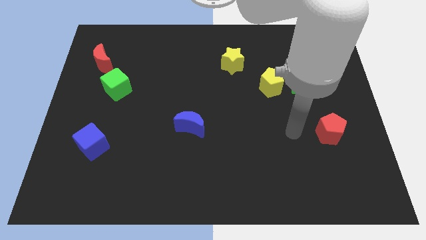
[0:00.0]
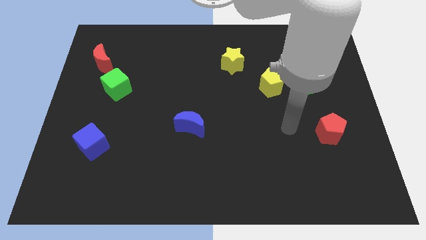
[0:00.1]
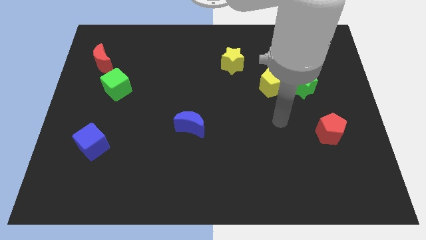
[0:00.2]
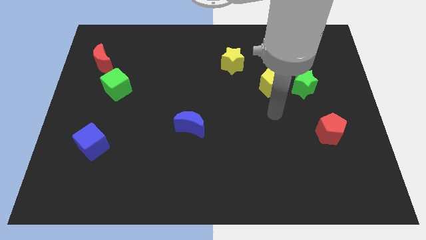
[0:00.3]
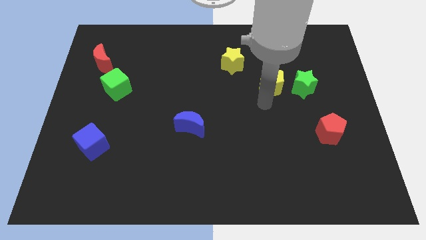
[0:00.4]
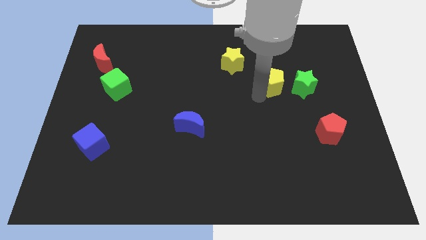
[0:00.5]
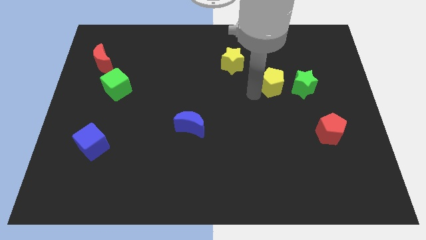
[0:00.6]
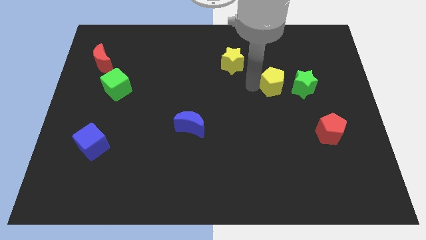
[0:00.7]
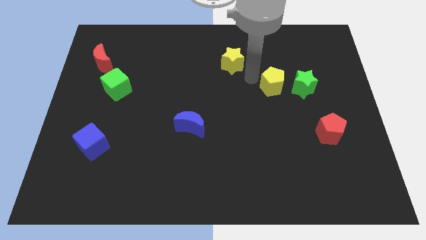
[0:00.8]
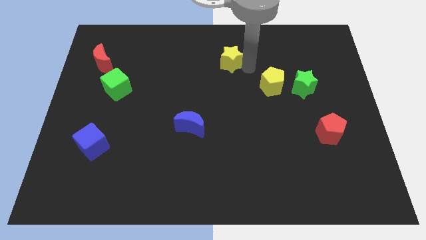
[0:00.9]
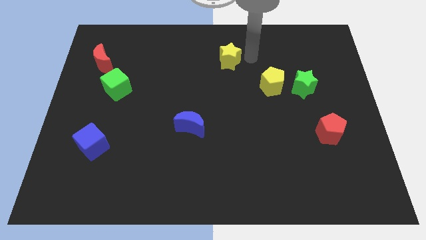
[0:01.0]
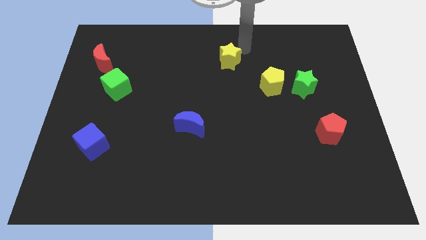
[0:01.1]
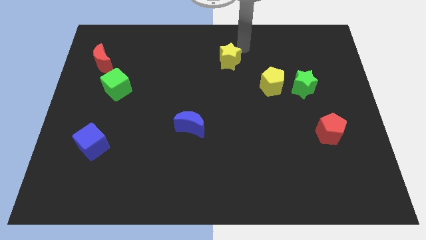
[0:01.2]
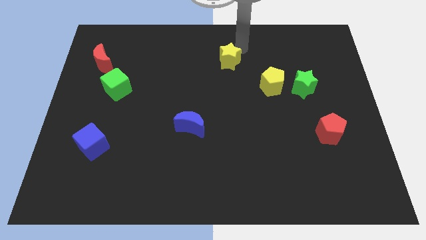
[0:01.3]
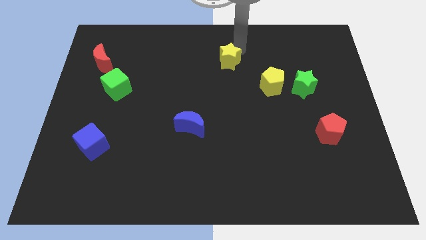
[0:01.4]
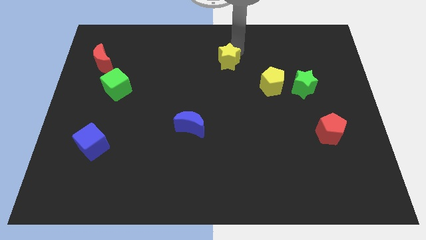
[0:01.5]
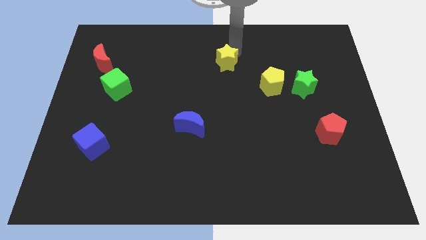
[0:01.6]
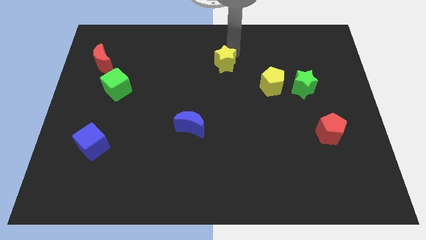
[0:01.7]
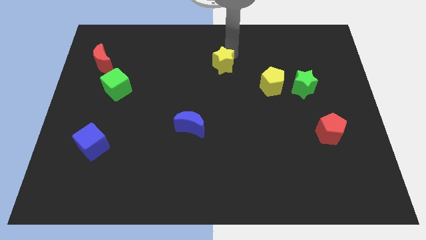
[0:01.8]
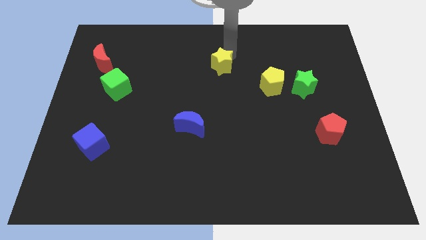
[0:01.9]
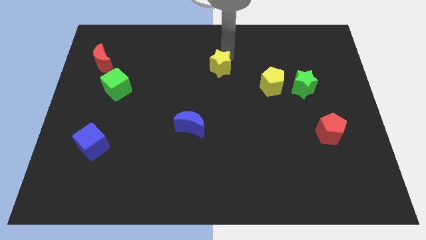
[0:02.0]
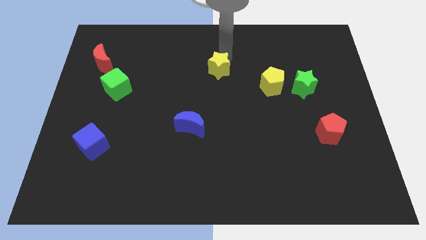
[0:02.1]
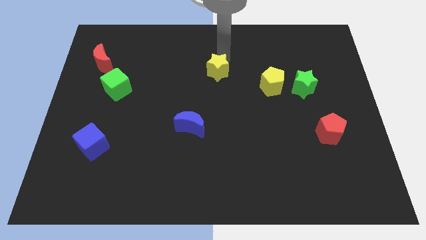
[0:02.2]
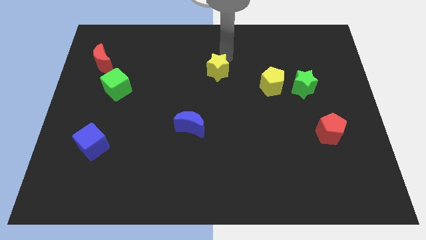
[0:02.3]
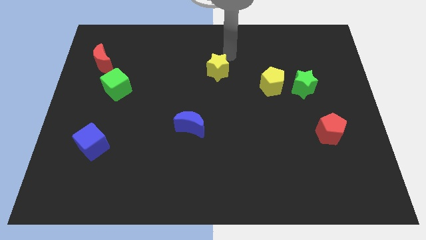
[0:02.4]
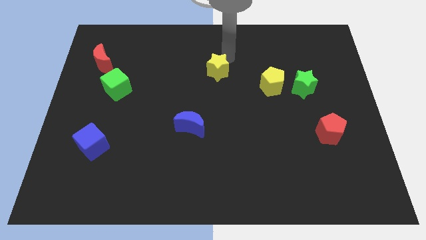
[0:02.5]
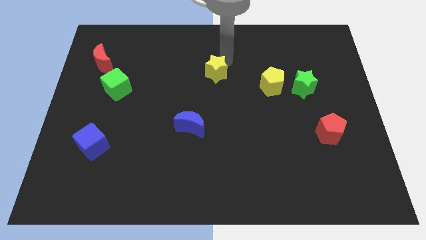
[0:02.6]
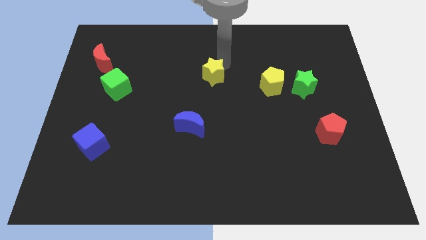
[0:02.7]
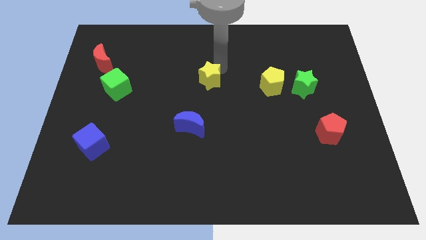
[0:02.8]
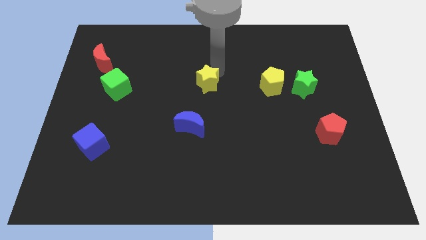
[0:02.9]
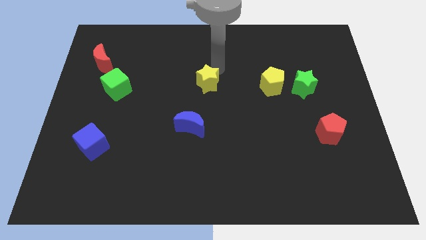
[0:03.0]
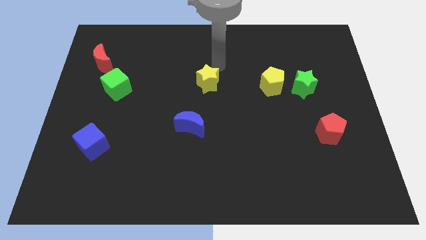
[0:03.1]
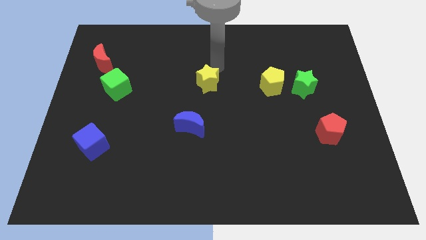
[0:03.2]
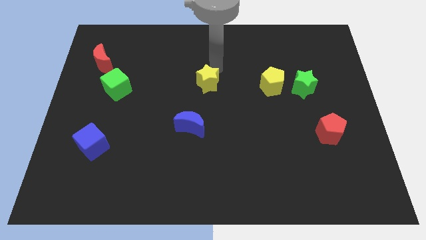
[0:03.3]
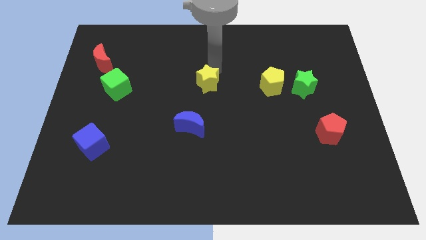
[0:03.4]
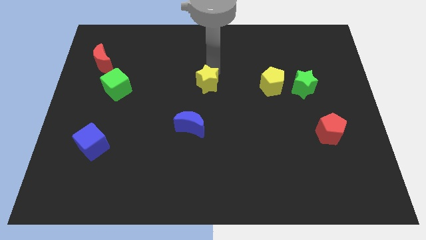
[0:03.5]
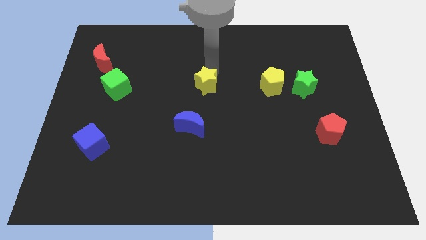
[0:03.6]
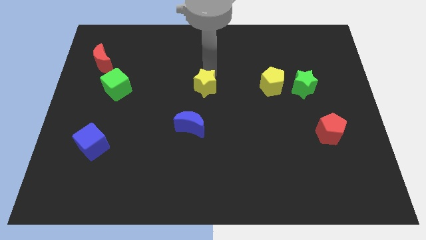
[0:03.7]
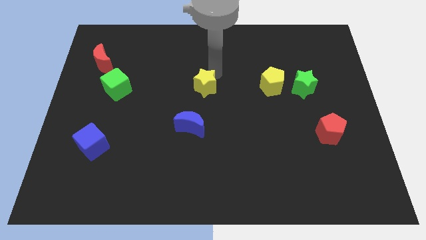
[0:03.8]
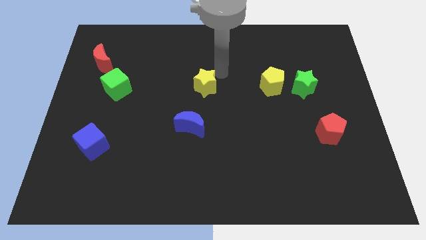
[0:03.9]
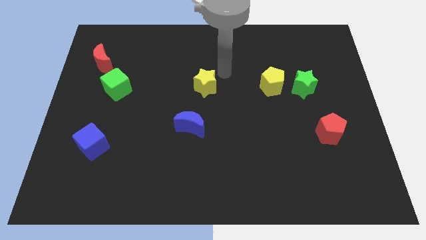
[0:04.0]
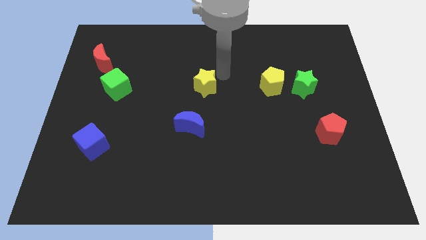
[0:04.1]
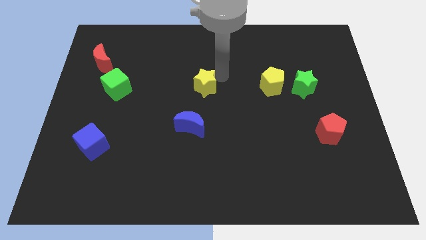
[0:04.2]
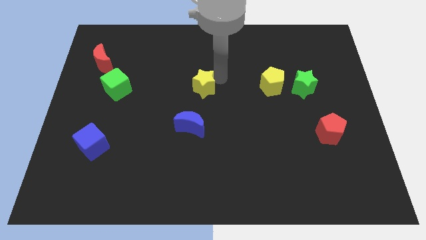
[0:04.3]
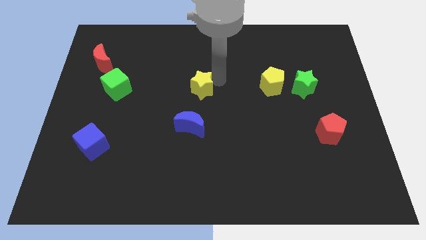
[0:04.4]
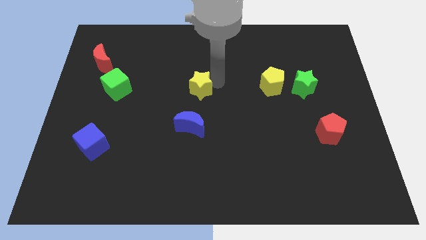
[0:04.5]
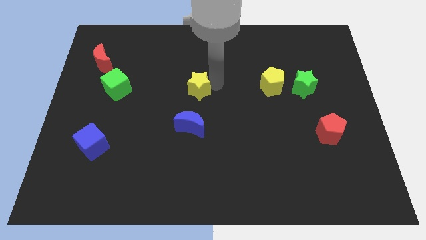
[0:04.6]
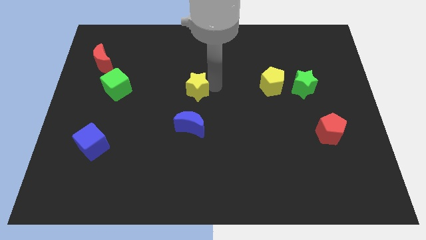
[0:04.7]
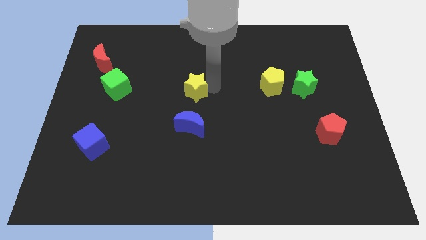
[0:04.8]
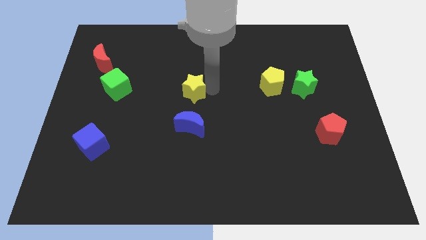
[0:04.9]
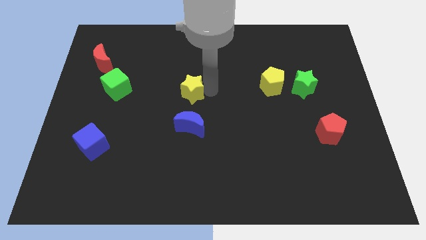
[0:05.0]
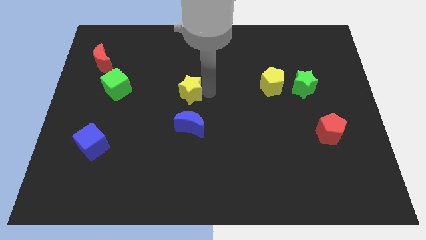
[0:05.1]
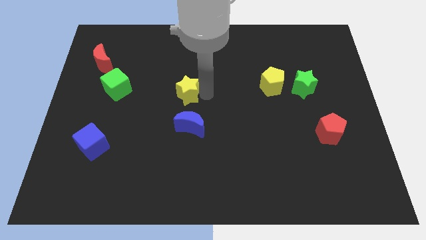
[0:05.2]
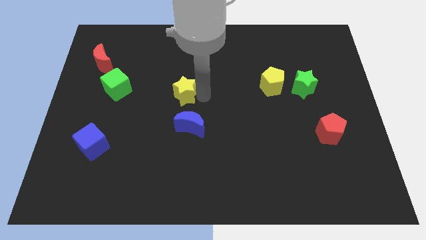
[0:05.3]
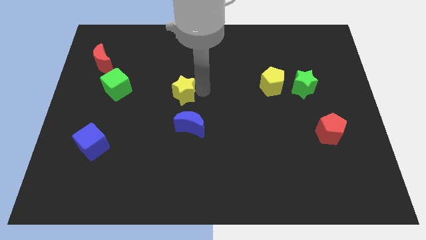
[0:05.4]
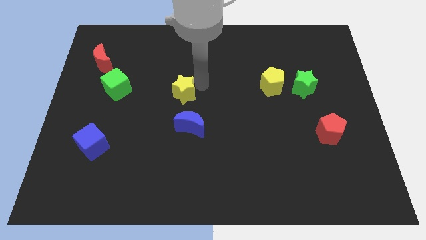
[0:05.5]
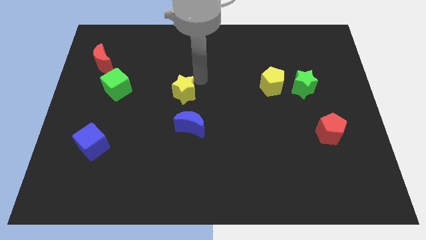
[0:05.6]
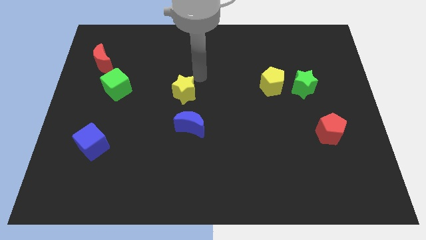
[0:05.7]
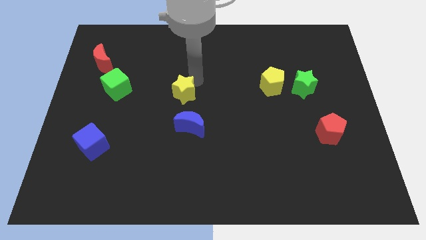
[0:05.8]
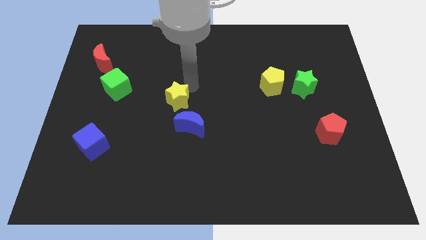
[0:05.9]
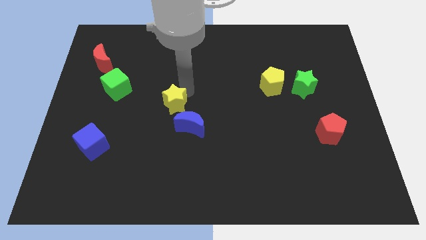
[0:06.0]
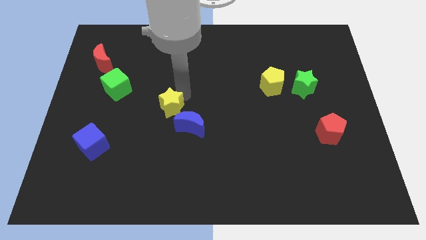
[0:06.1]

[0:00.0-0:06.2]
move the yellow star downwards and left diagonally

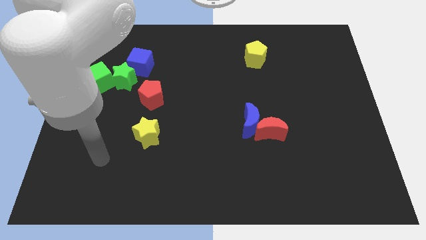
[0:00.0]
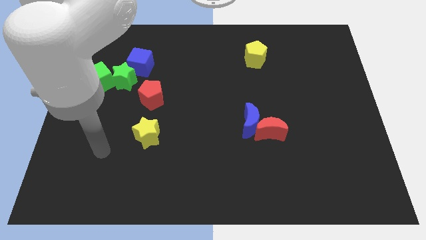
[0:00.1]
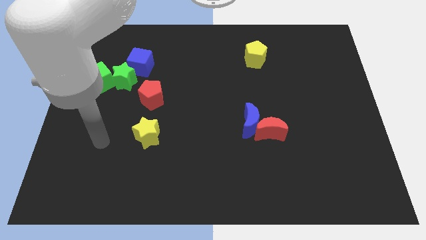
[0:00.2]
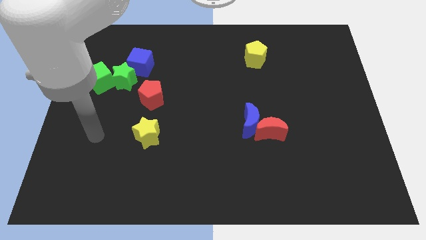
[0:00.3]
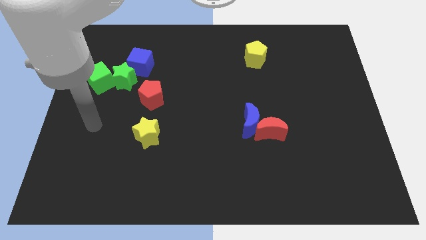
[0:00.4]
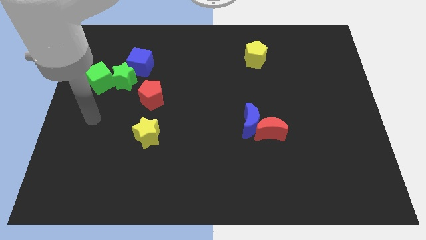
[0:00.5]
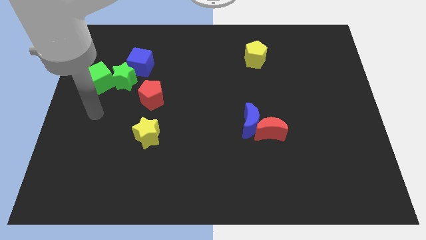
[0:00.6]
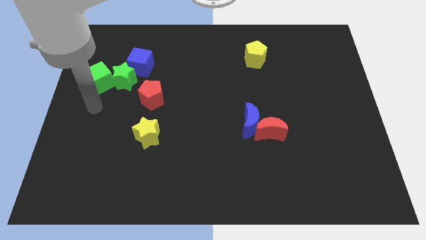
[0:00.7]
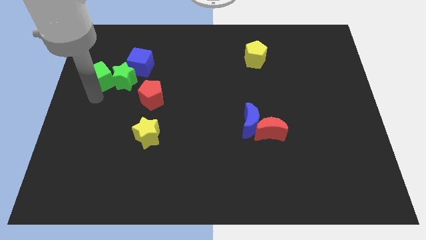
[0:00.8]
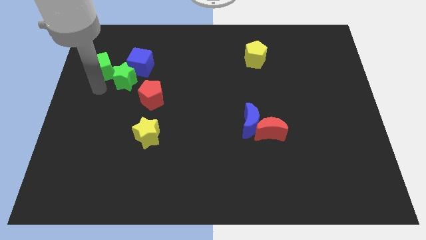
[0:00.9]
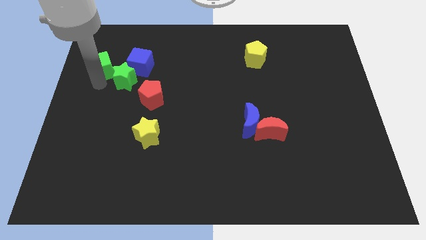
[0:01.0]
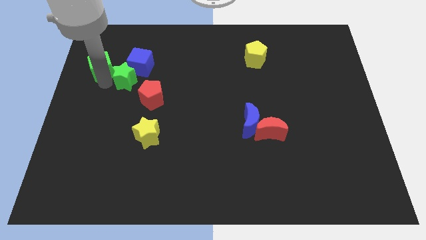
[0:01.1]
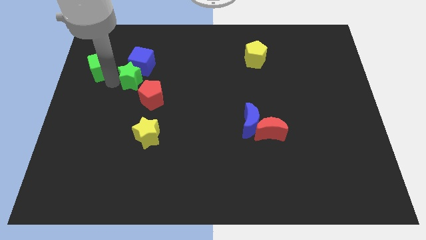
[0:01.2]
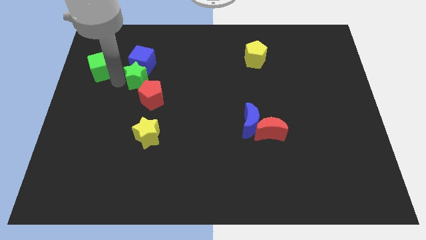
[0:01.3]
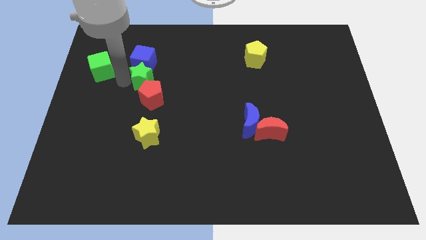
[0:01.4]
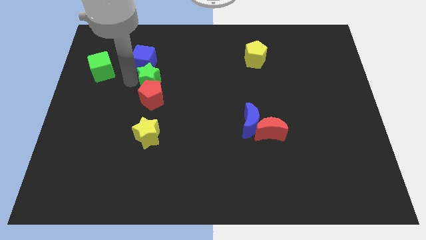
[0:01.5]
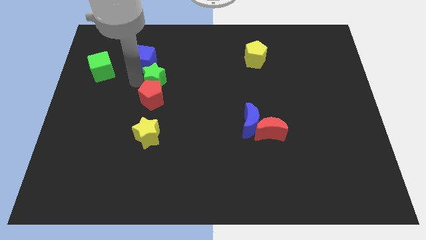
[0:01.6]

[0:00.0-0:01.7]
slightly slide the green star right

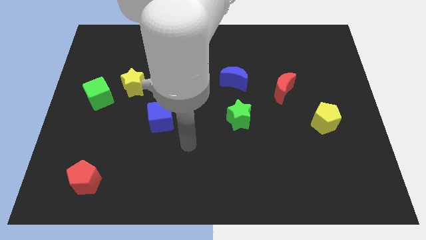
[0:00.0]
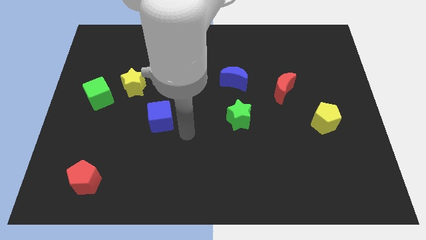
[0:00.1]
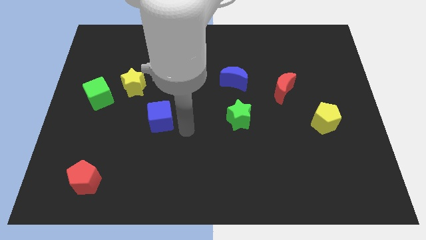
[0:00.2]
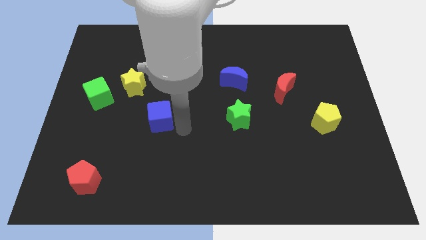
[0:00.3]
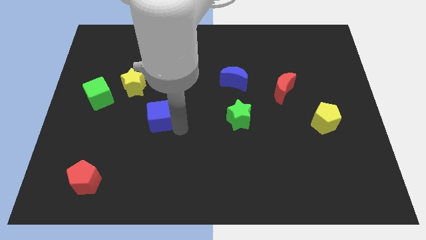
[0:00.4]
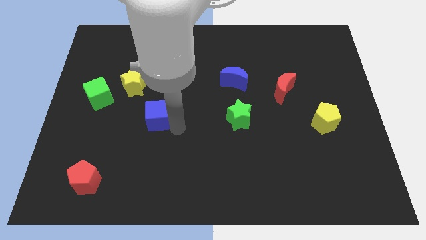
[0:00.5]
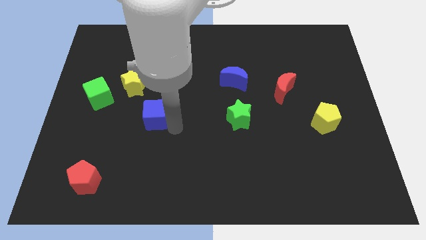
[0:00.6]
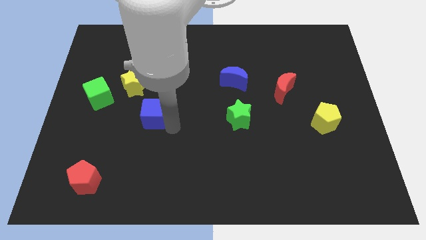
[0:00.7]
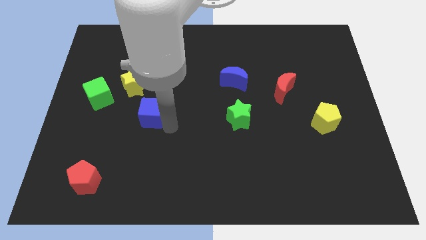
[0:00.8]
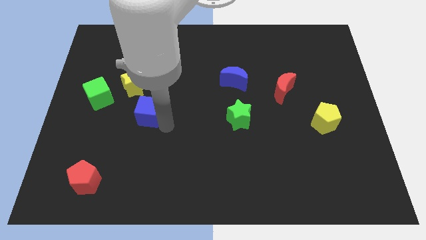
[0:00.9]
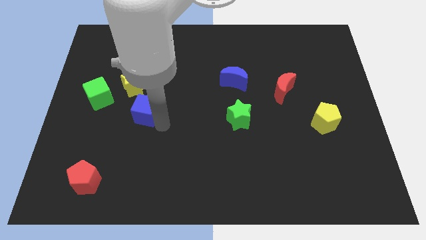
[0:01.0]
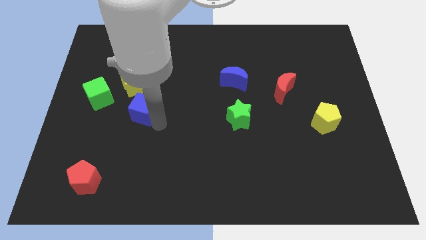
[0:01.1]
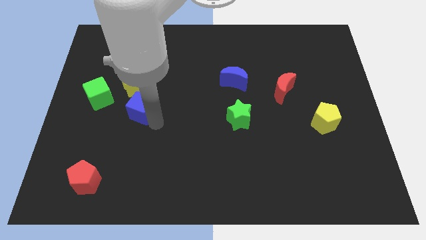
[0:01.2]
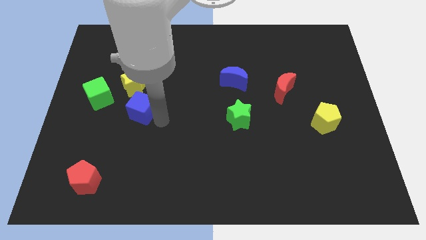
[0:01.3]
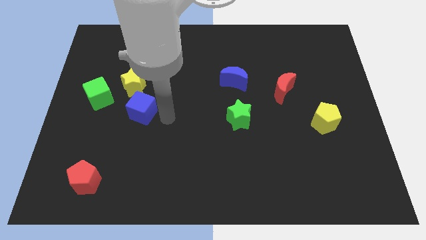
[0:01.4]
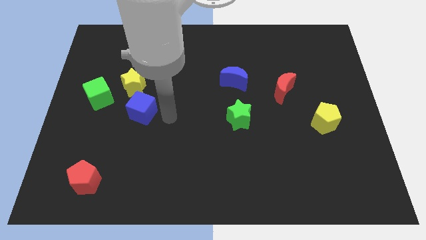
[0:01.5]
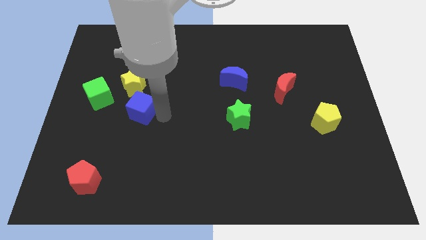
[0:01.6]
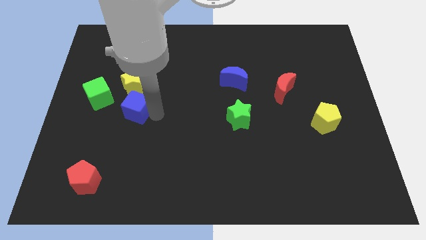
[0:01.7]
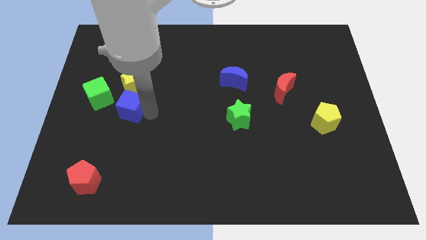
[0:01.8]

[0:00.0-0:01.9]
push the blue cube a little bit up and to the left diagonally
